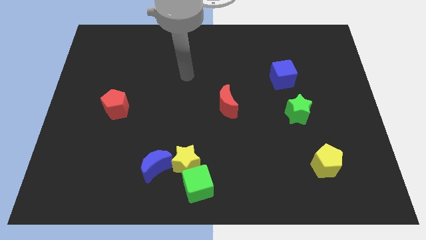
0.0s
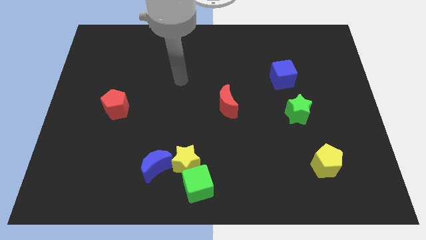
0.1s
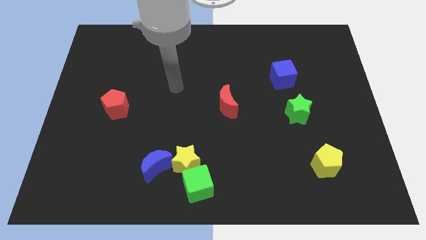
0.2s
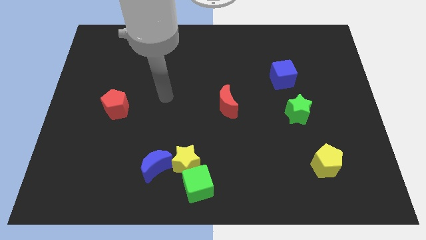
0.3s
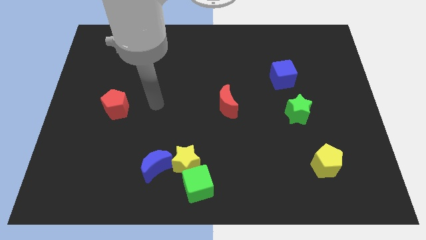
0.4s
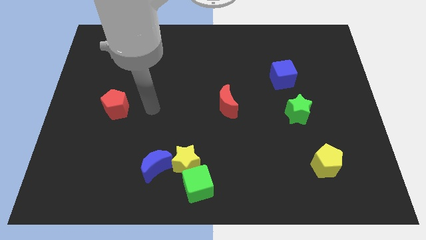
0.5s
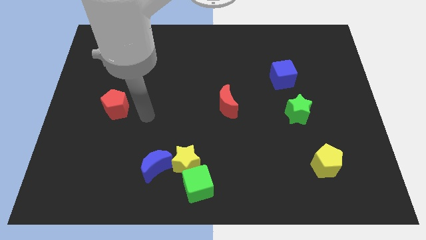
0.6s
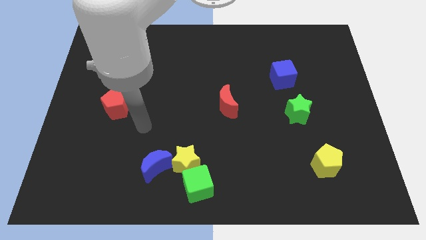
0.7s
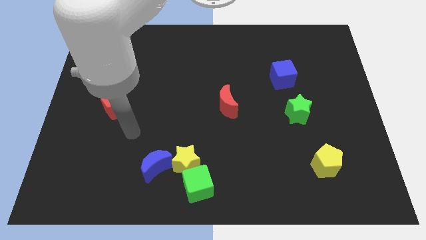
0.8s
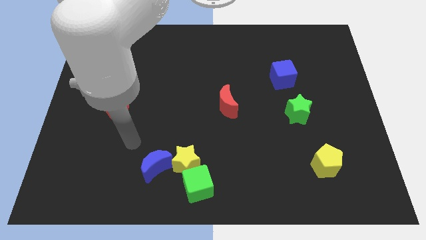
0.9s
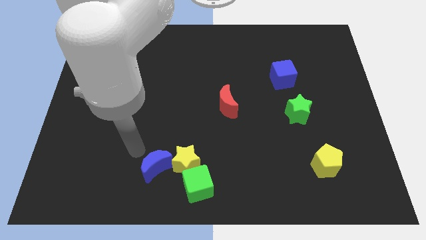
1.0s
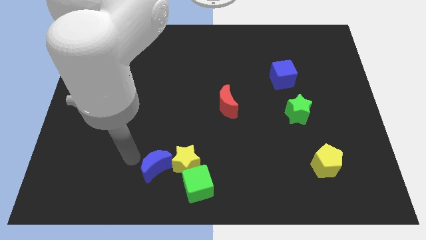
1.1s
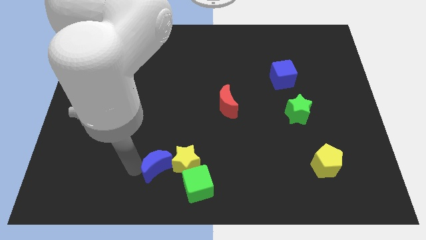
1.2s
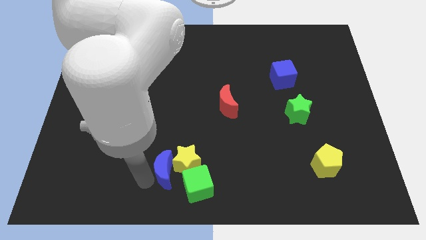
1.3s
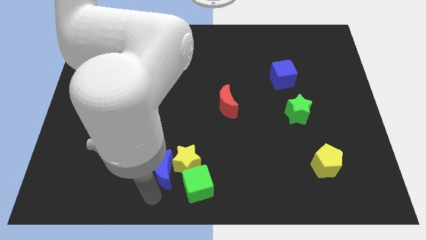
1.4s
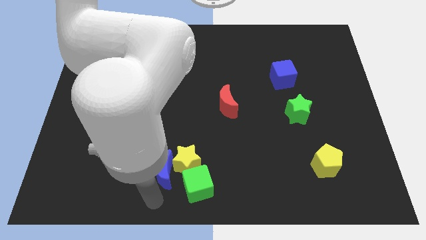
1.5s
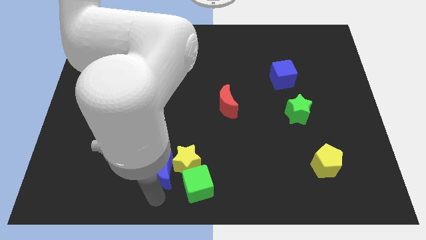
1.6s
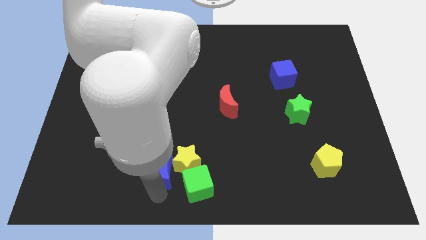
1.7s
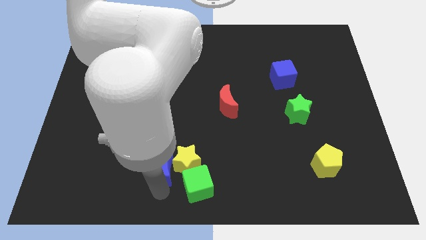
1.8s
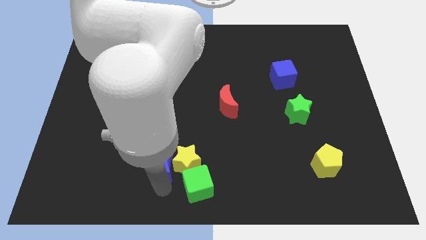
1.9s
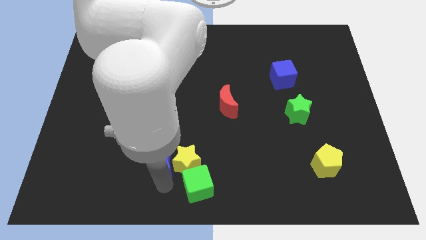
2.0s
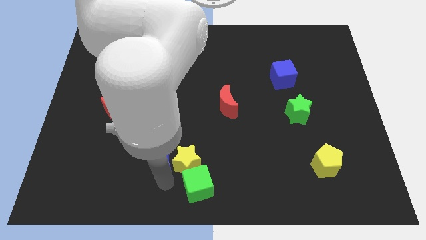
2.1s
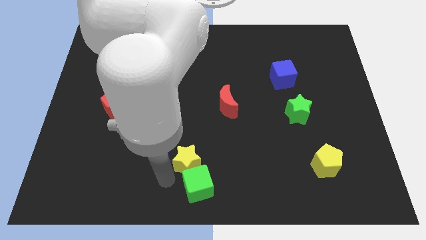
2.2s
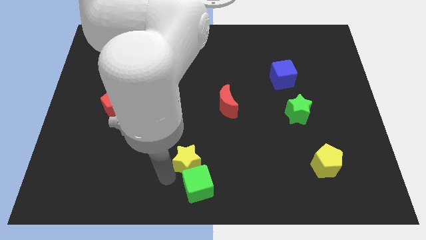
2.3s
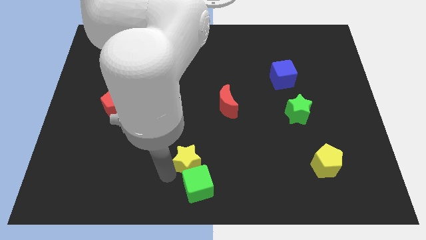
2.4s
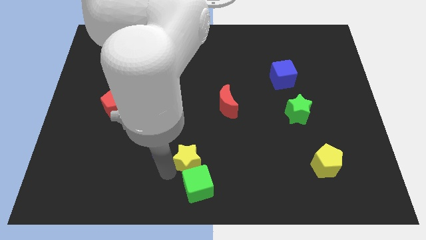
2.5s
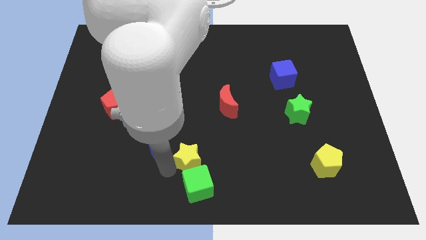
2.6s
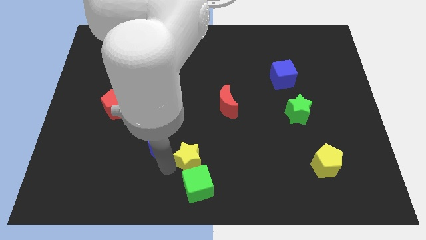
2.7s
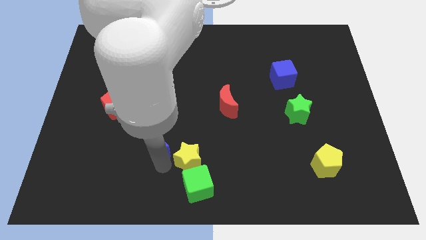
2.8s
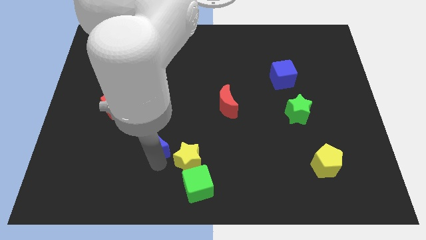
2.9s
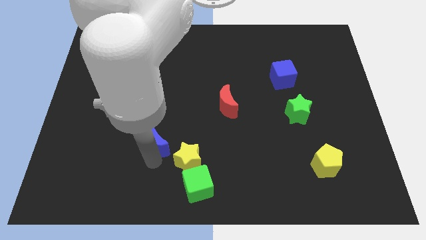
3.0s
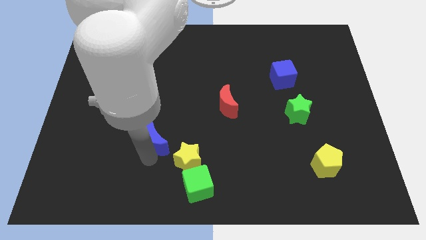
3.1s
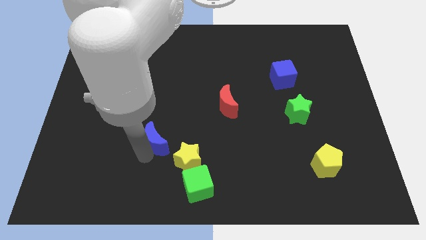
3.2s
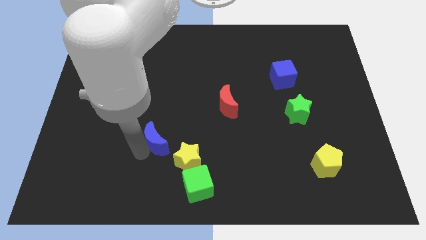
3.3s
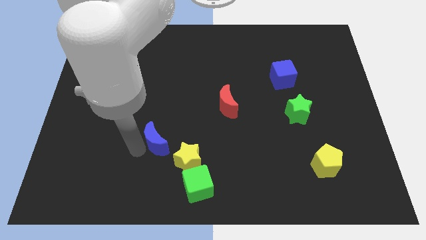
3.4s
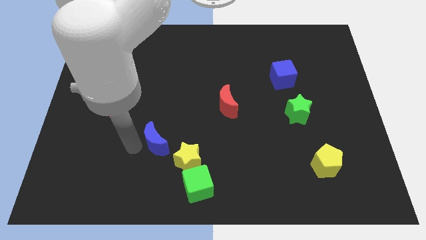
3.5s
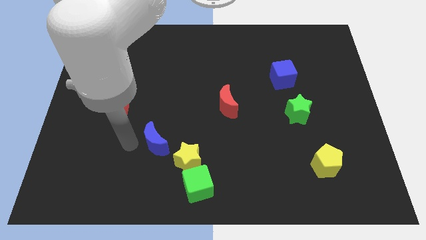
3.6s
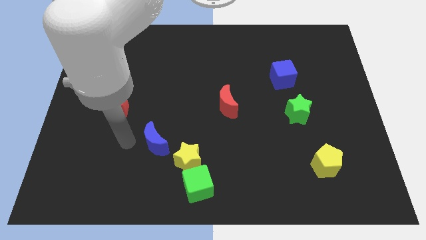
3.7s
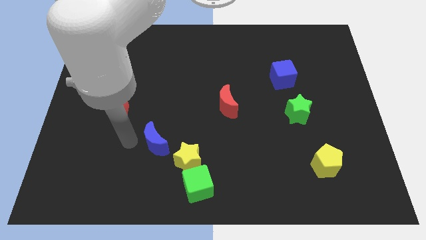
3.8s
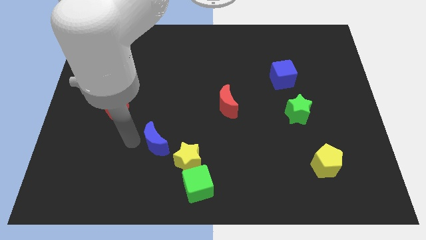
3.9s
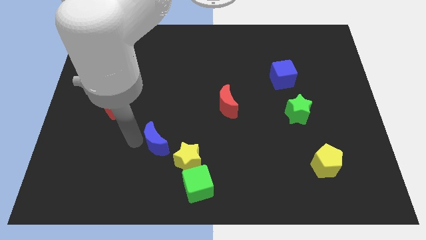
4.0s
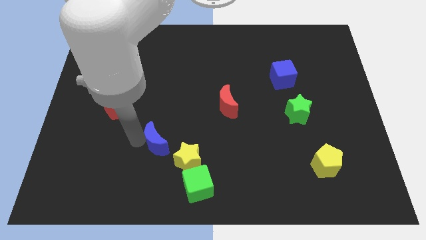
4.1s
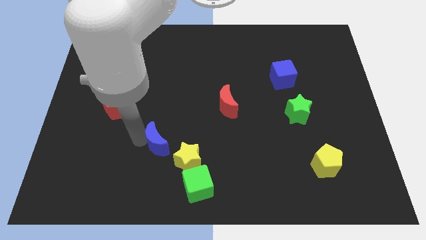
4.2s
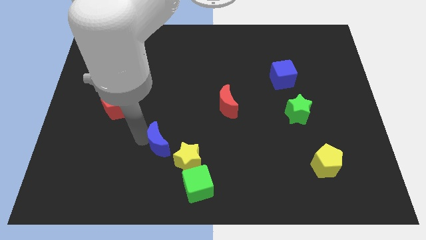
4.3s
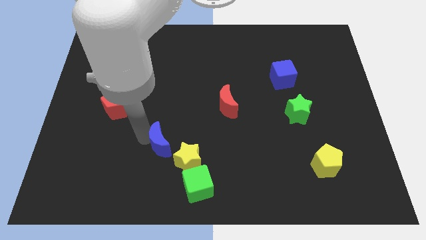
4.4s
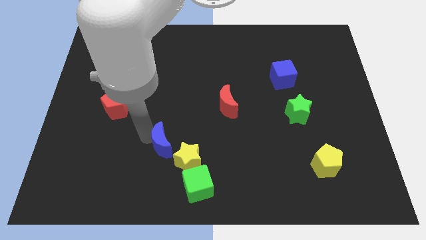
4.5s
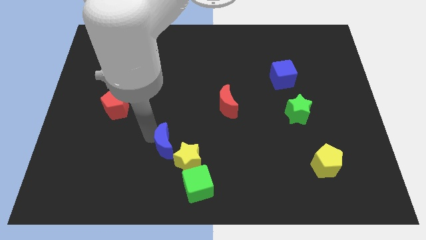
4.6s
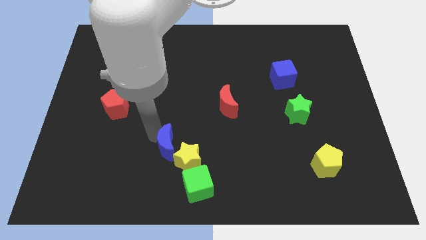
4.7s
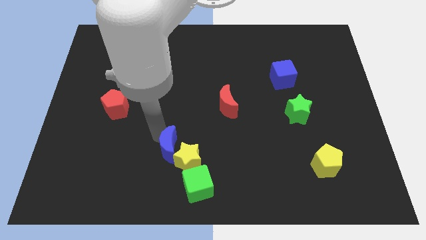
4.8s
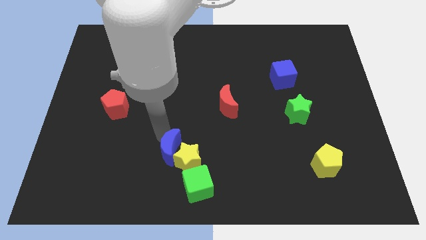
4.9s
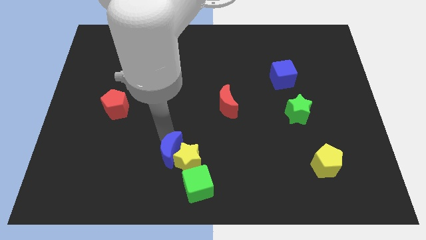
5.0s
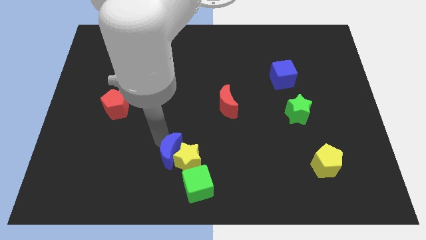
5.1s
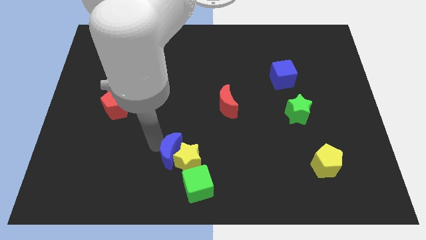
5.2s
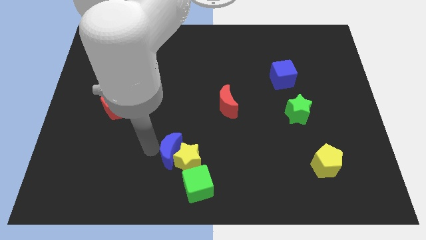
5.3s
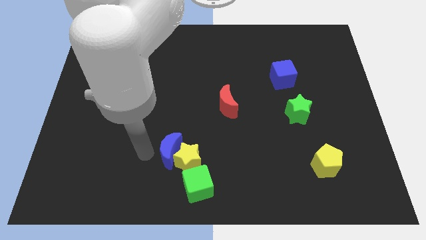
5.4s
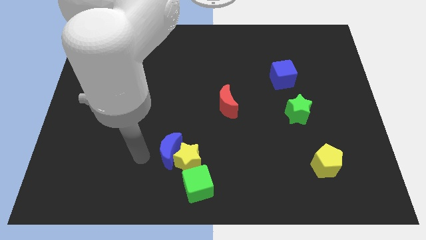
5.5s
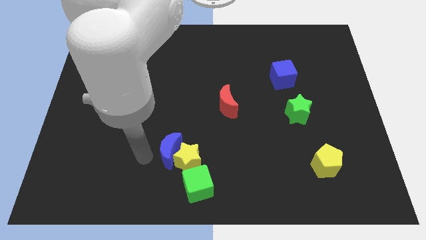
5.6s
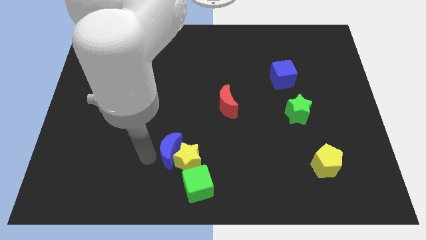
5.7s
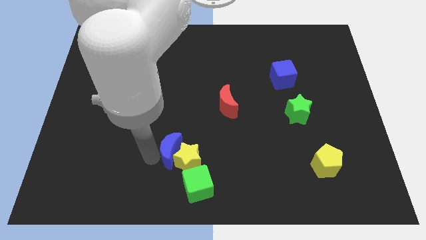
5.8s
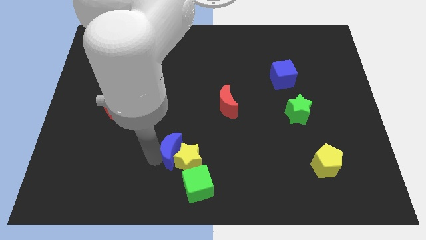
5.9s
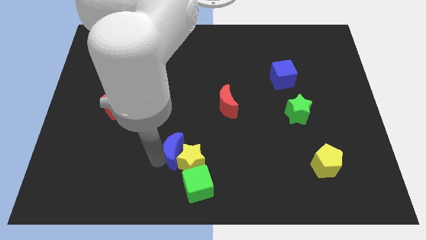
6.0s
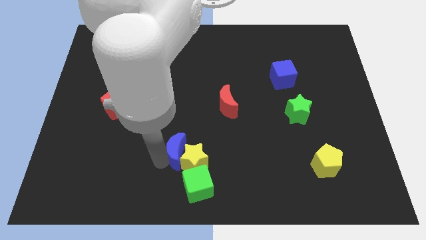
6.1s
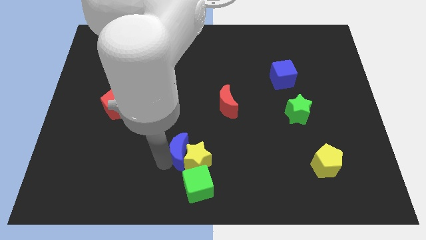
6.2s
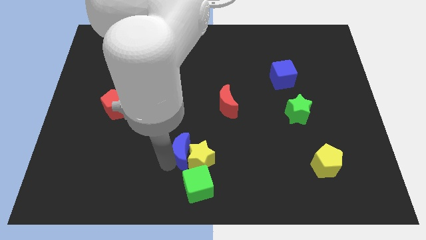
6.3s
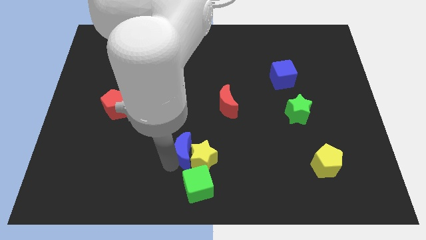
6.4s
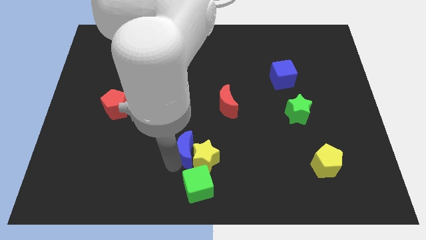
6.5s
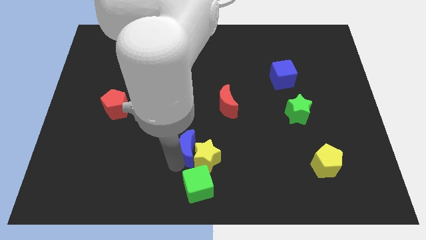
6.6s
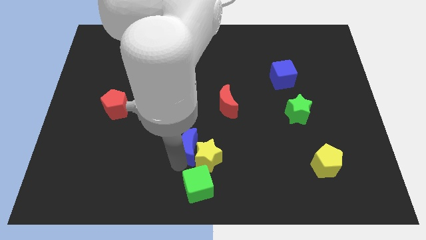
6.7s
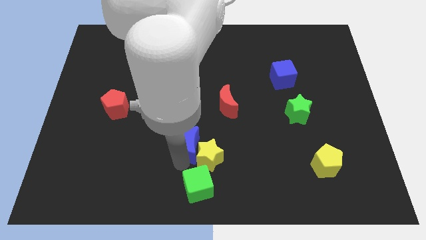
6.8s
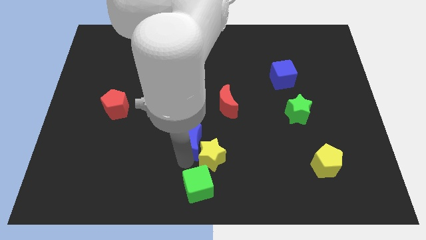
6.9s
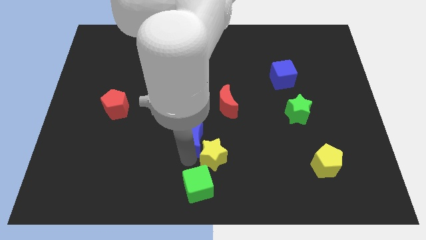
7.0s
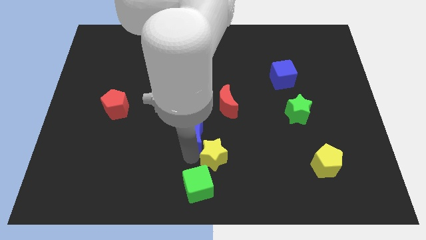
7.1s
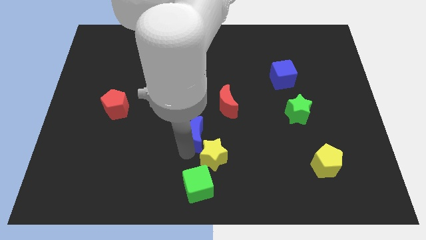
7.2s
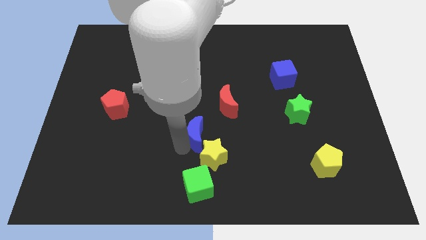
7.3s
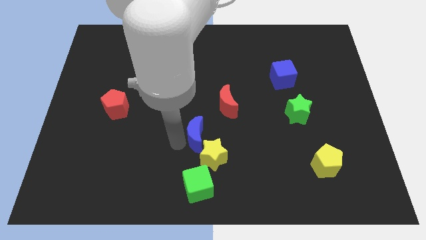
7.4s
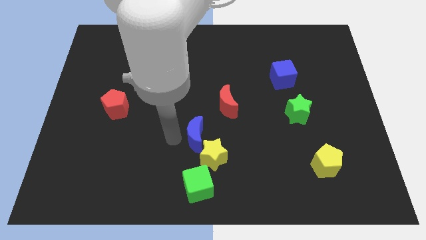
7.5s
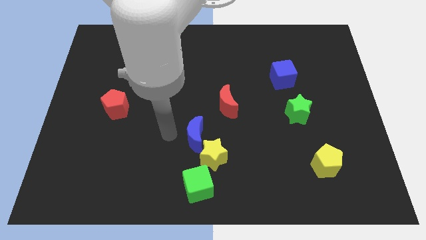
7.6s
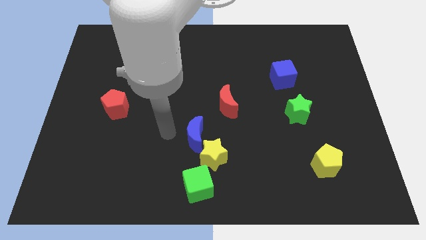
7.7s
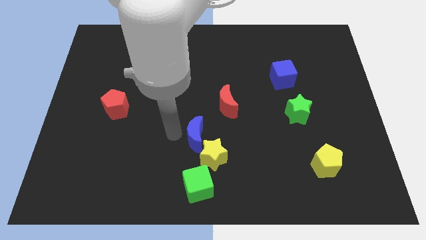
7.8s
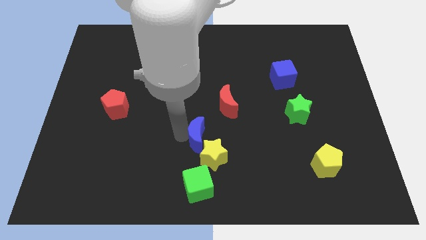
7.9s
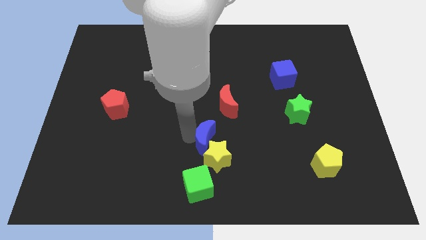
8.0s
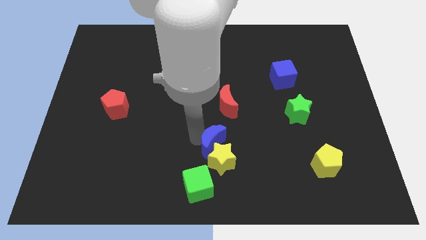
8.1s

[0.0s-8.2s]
move the blue moon below the red moon
